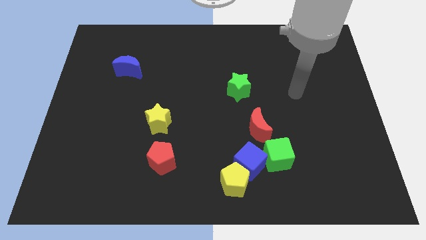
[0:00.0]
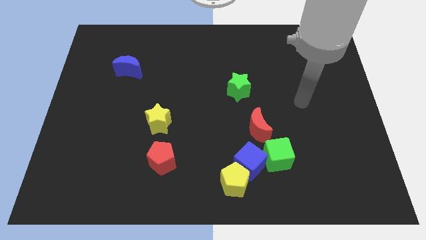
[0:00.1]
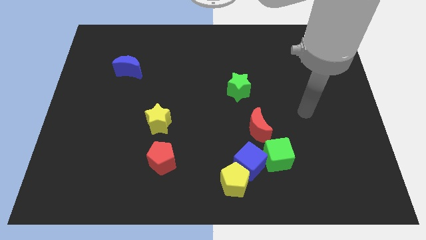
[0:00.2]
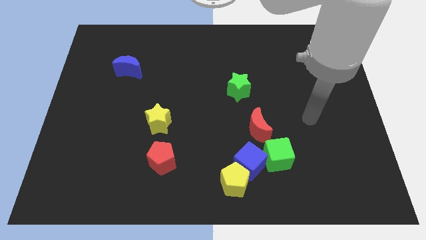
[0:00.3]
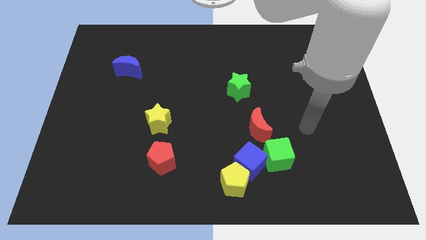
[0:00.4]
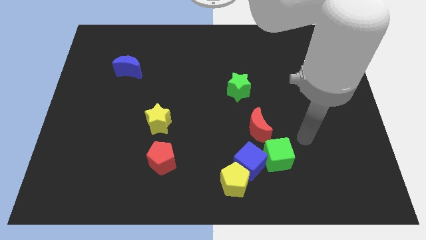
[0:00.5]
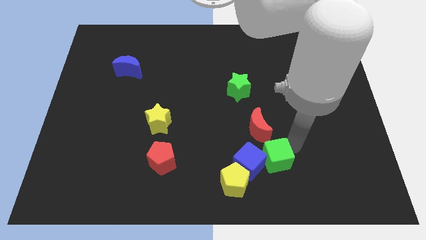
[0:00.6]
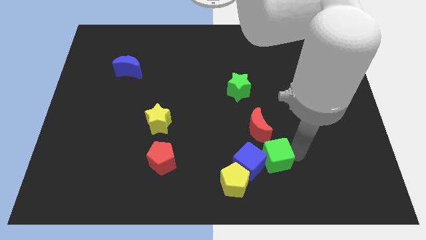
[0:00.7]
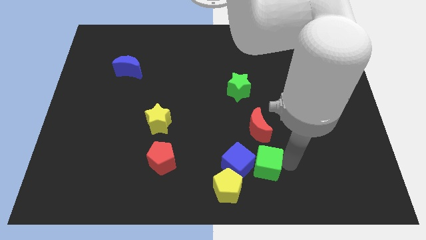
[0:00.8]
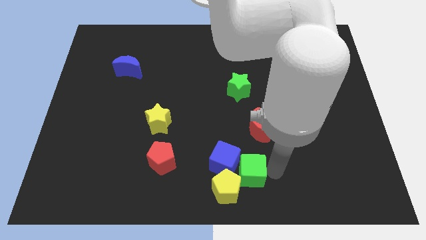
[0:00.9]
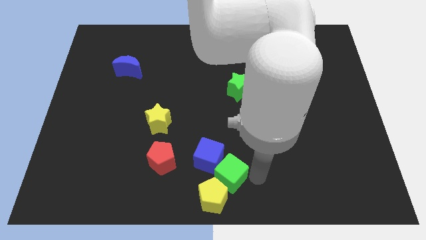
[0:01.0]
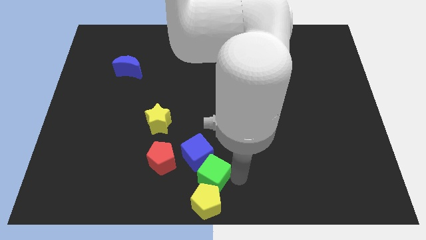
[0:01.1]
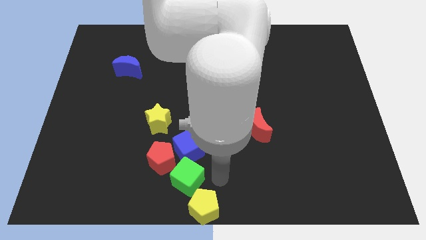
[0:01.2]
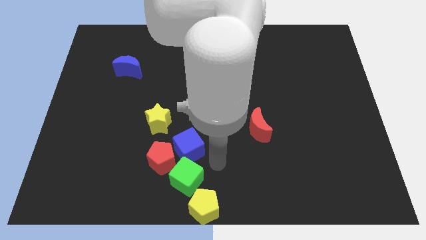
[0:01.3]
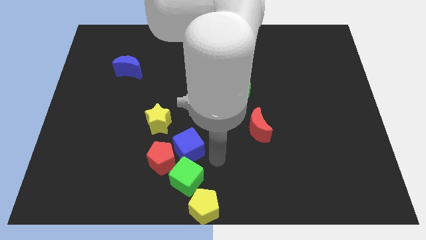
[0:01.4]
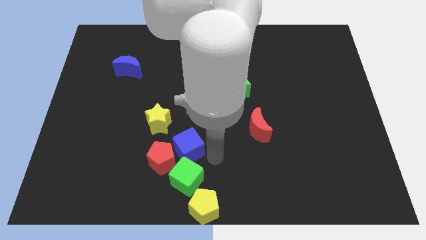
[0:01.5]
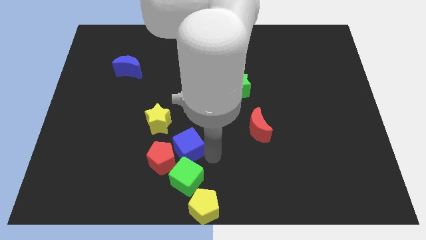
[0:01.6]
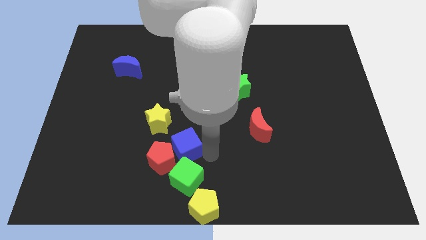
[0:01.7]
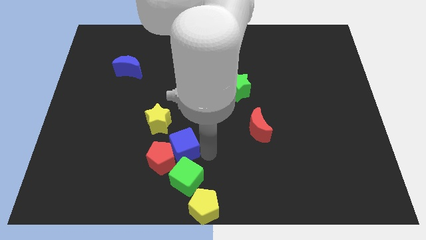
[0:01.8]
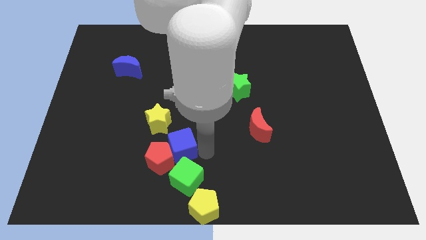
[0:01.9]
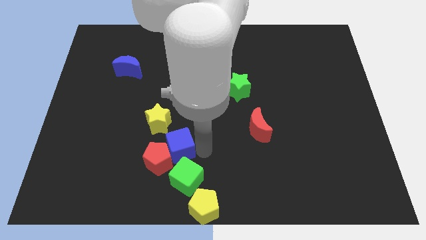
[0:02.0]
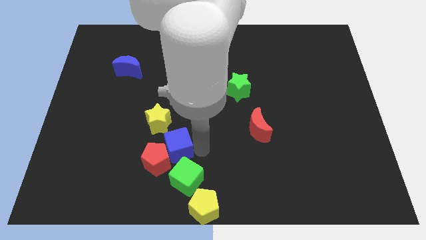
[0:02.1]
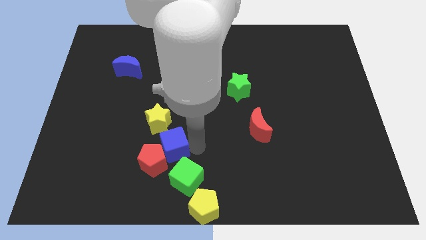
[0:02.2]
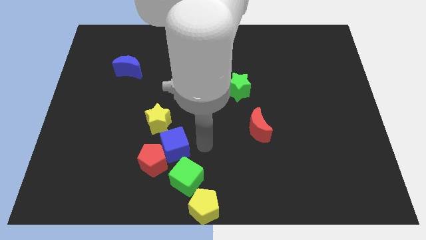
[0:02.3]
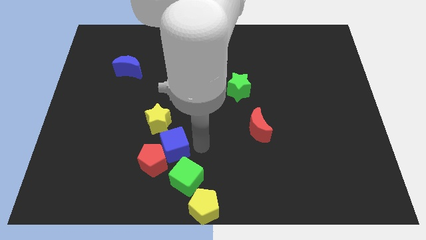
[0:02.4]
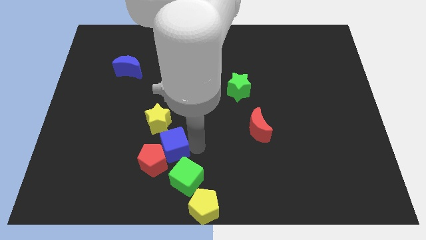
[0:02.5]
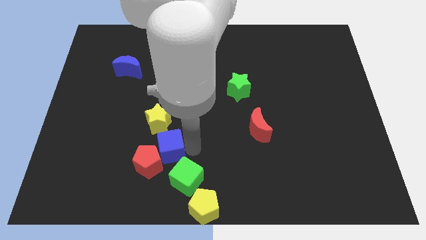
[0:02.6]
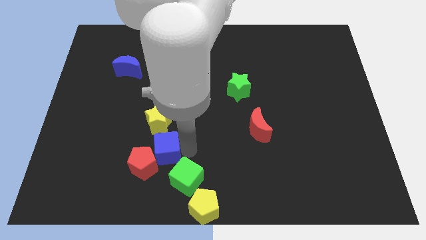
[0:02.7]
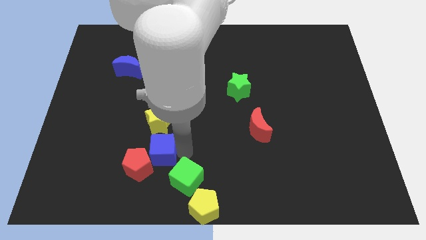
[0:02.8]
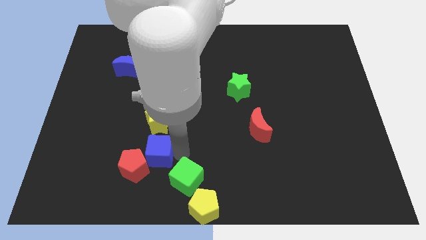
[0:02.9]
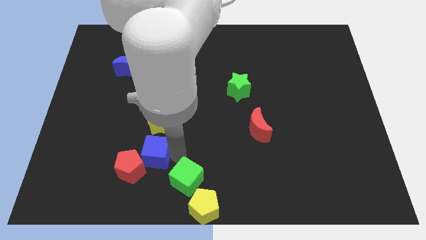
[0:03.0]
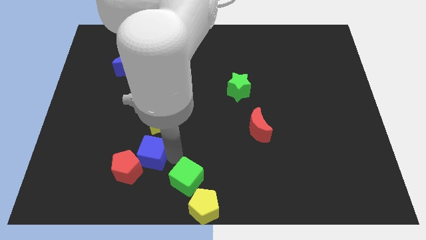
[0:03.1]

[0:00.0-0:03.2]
slide the blue cube to the left

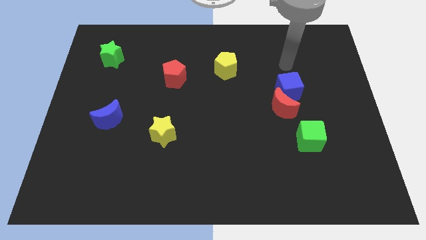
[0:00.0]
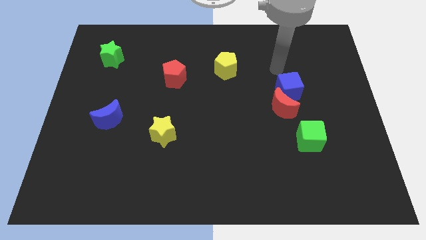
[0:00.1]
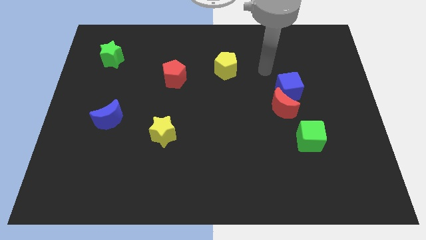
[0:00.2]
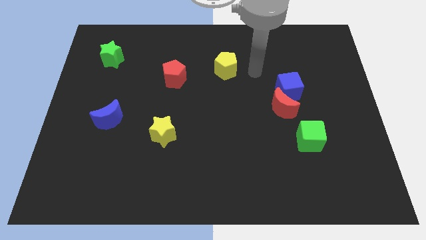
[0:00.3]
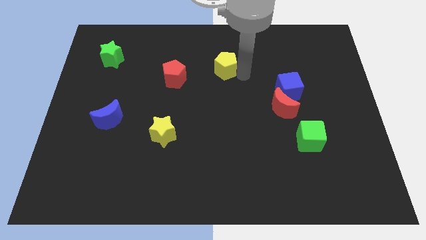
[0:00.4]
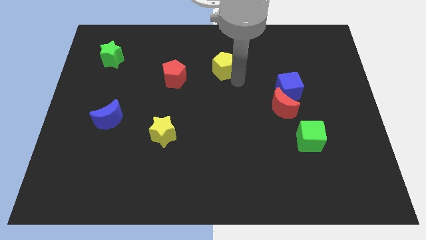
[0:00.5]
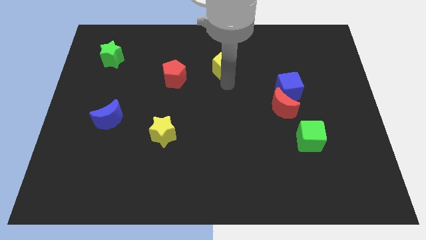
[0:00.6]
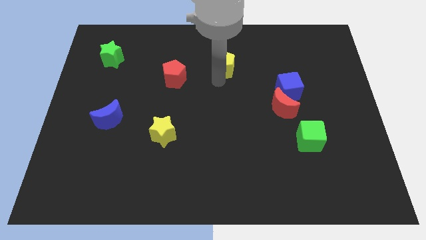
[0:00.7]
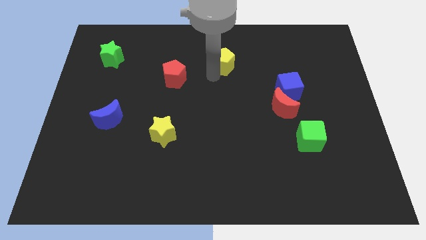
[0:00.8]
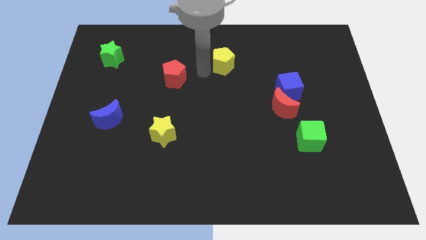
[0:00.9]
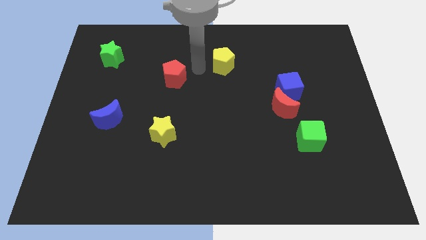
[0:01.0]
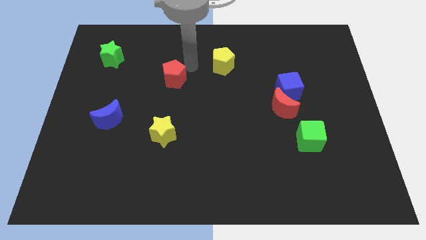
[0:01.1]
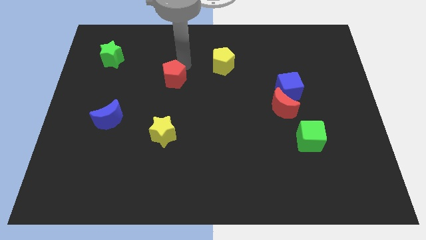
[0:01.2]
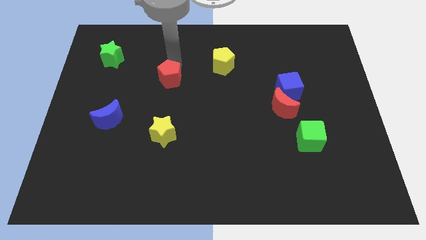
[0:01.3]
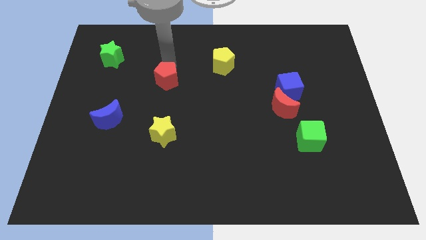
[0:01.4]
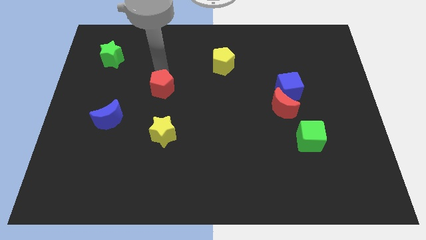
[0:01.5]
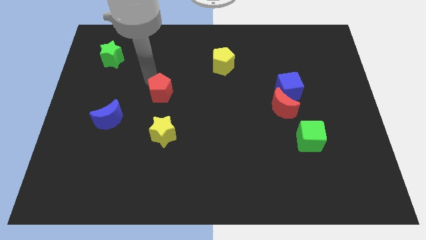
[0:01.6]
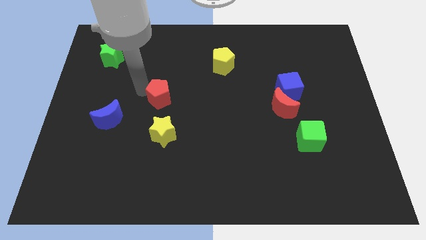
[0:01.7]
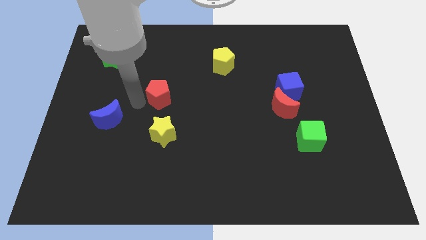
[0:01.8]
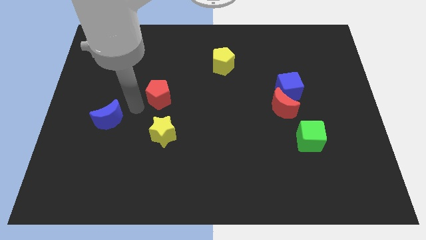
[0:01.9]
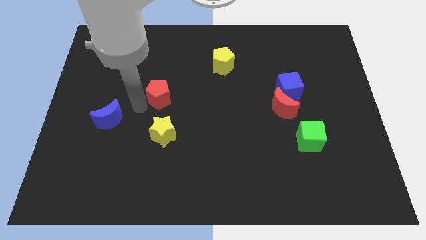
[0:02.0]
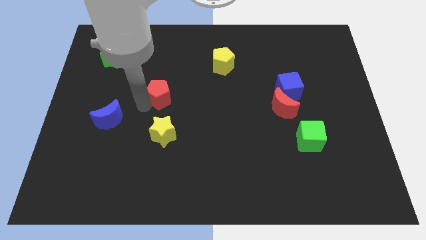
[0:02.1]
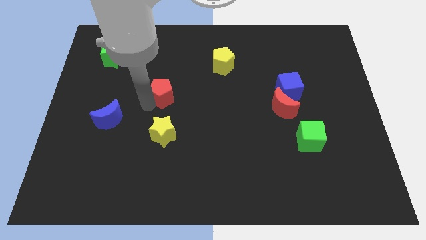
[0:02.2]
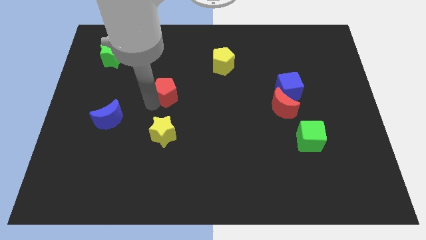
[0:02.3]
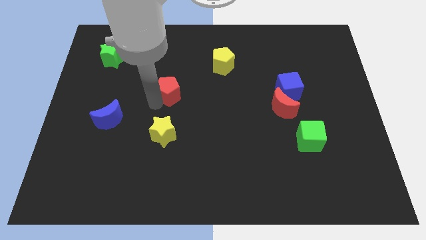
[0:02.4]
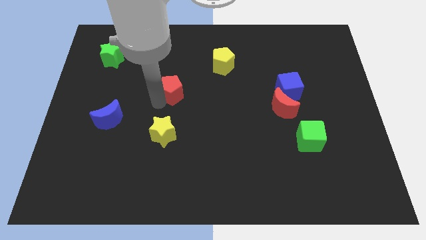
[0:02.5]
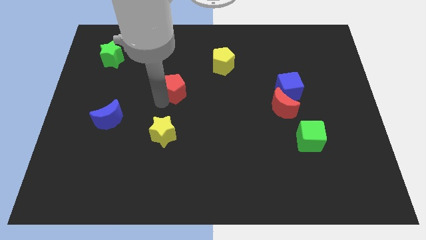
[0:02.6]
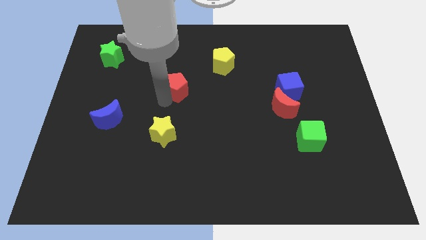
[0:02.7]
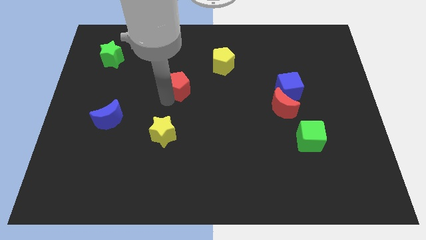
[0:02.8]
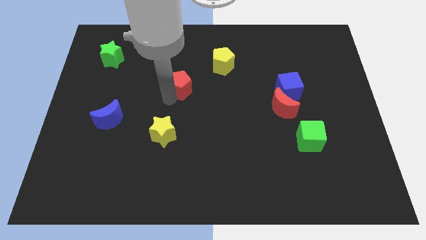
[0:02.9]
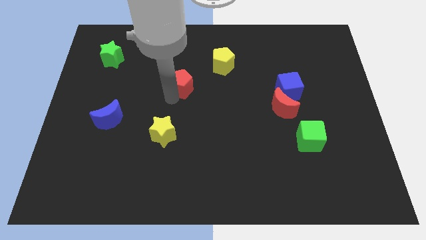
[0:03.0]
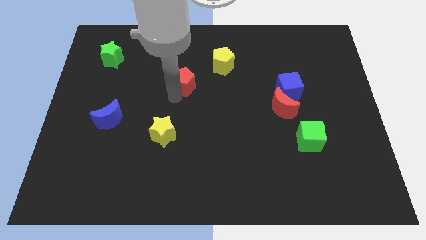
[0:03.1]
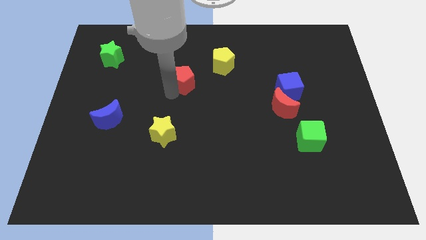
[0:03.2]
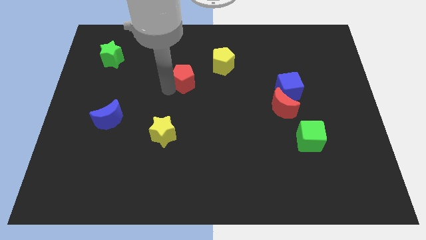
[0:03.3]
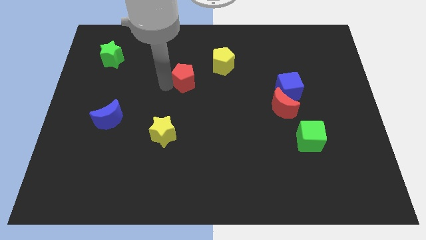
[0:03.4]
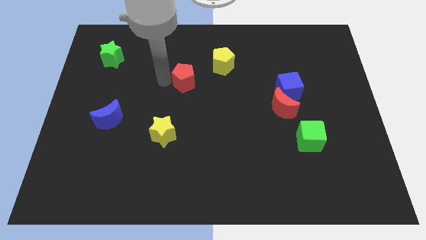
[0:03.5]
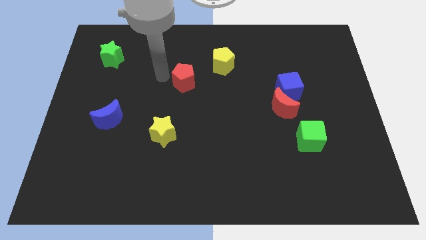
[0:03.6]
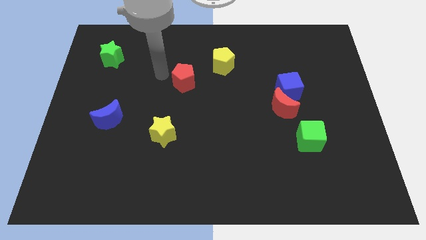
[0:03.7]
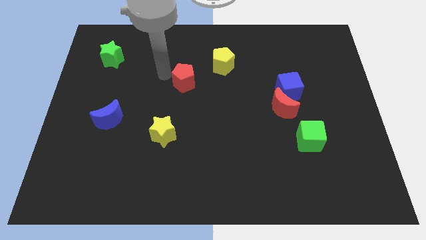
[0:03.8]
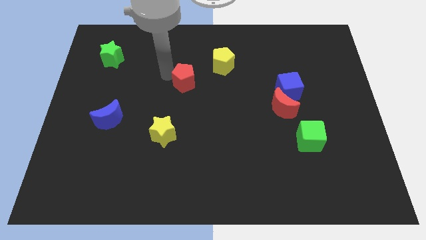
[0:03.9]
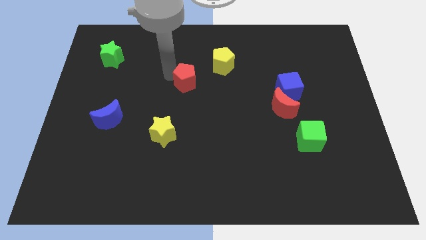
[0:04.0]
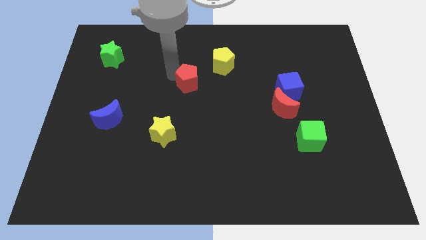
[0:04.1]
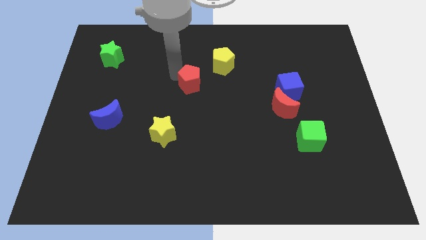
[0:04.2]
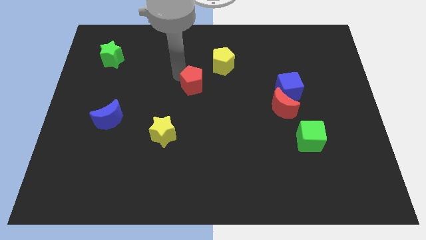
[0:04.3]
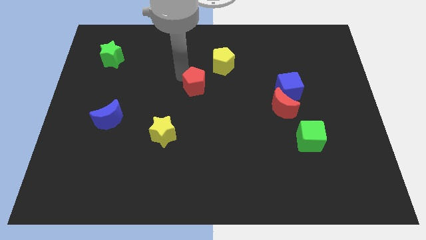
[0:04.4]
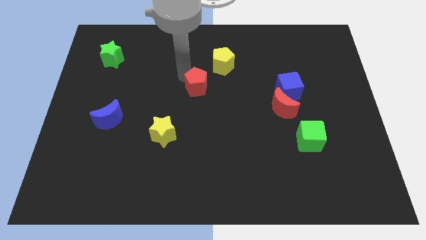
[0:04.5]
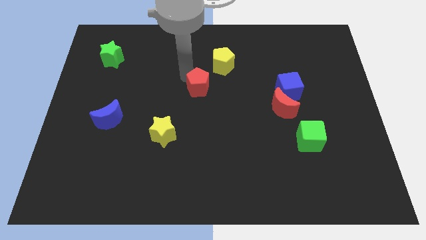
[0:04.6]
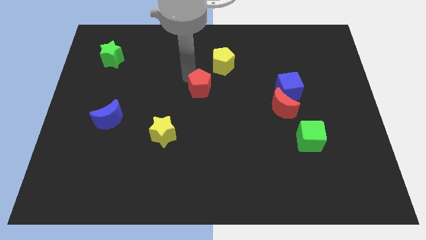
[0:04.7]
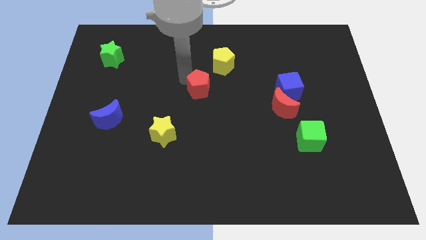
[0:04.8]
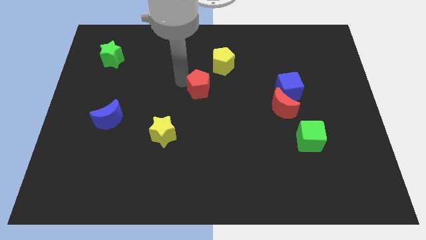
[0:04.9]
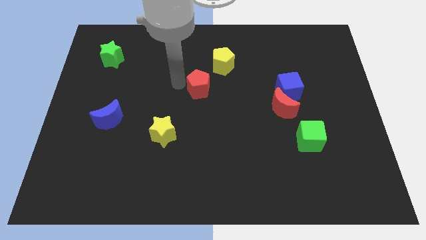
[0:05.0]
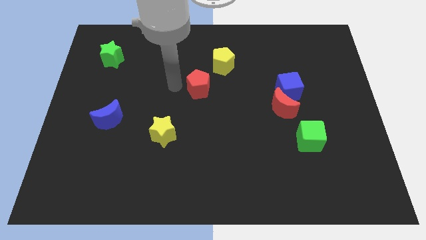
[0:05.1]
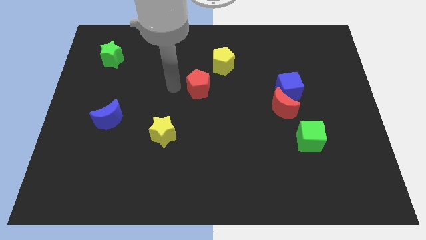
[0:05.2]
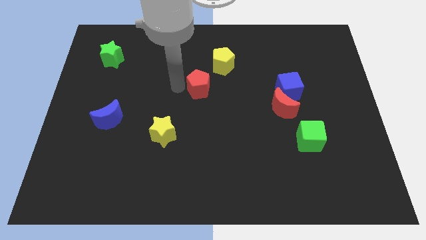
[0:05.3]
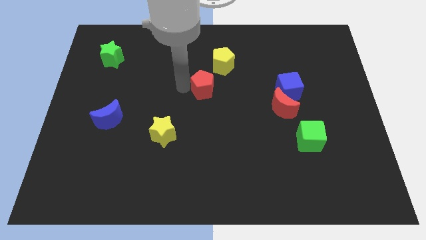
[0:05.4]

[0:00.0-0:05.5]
slide the red pentagon a little to the right
